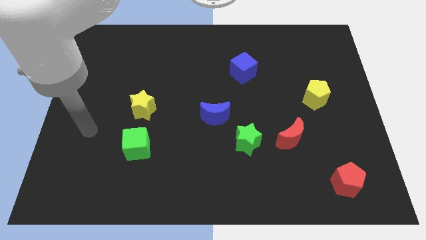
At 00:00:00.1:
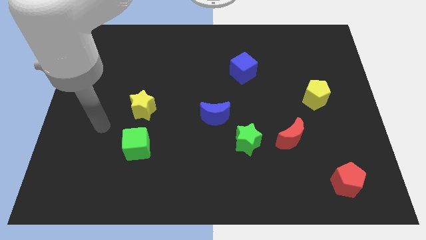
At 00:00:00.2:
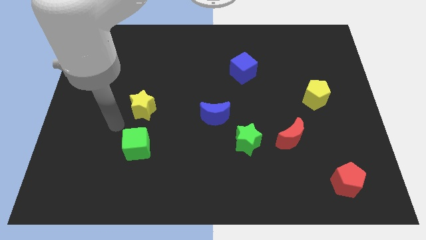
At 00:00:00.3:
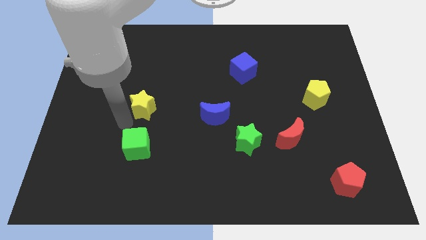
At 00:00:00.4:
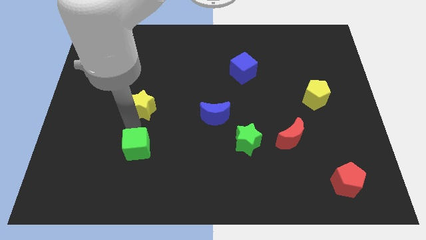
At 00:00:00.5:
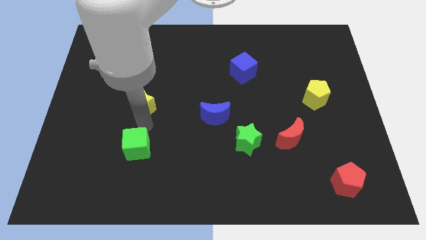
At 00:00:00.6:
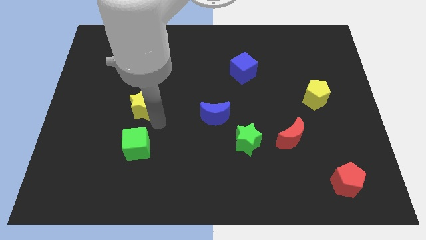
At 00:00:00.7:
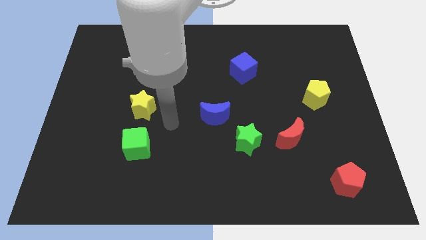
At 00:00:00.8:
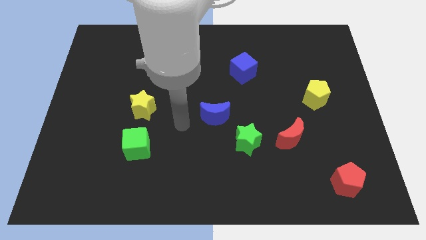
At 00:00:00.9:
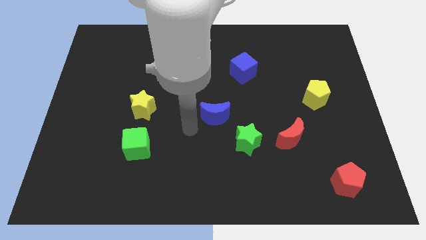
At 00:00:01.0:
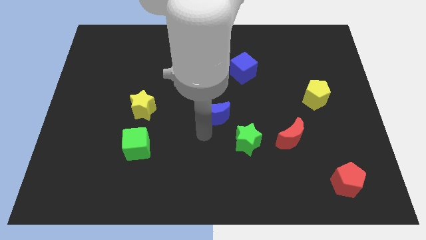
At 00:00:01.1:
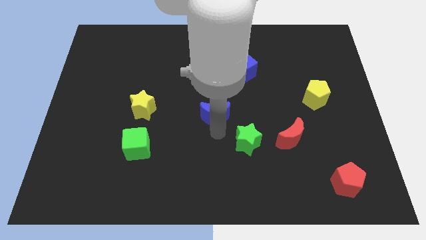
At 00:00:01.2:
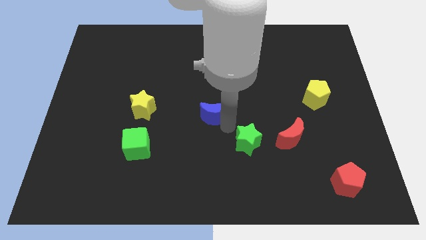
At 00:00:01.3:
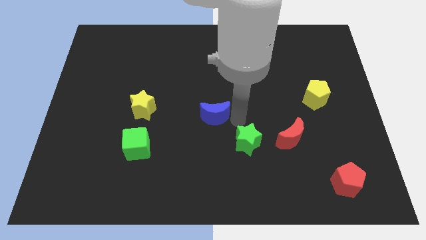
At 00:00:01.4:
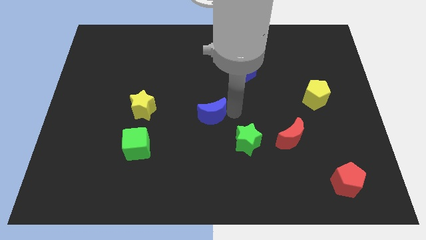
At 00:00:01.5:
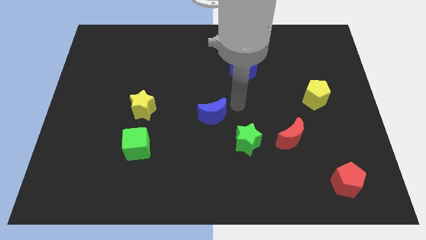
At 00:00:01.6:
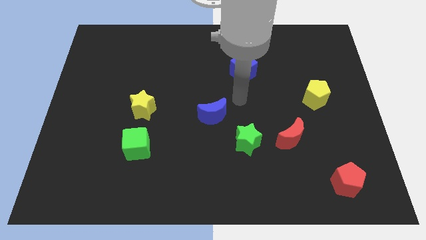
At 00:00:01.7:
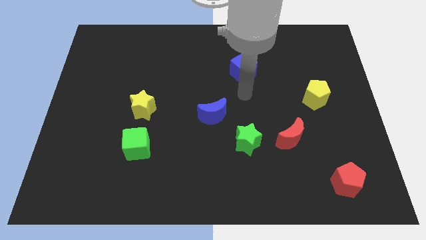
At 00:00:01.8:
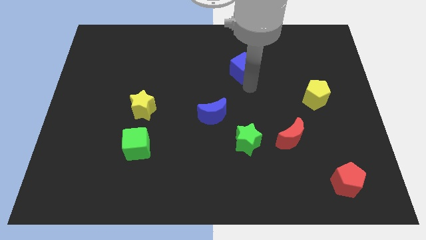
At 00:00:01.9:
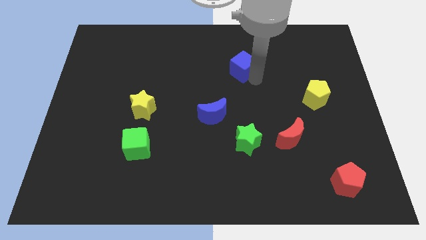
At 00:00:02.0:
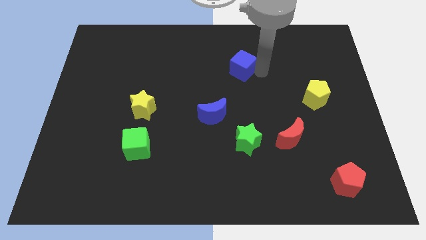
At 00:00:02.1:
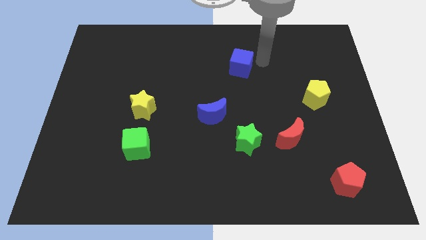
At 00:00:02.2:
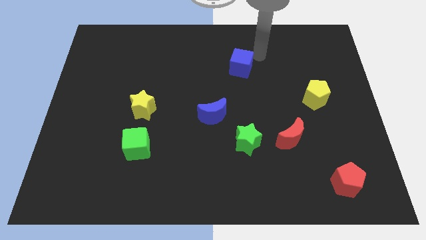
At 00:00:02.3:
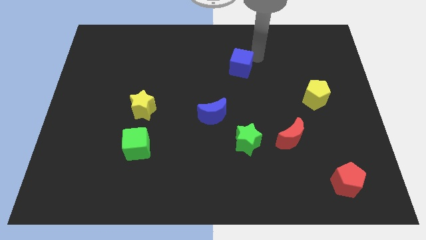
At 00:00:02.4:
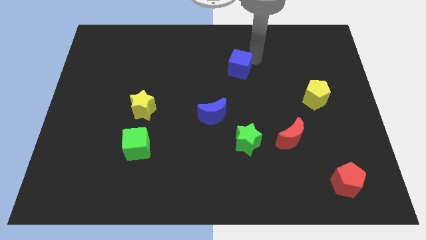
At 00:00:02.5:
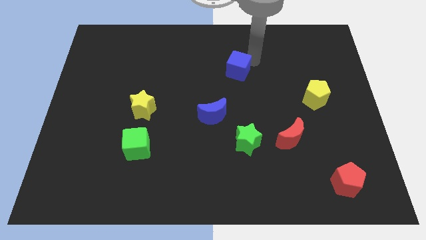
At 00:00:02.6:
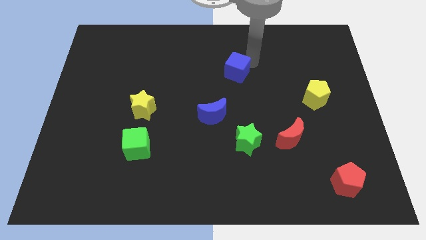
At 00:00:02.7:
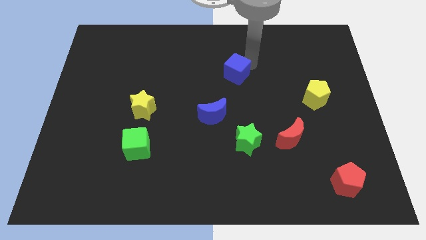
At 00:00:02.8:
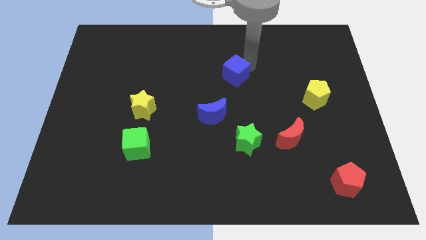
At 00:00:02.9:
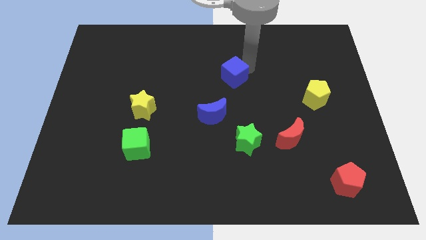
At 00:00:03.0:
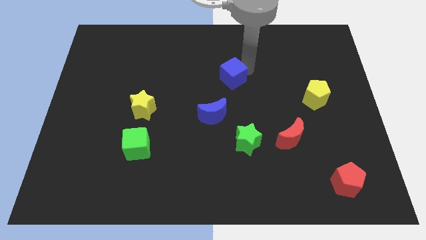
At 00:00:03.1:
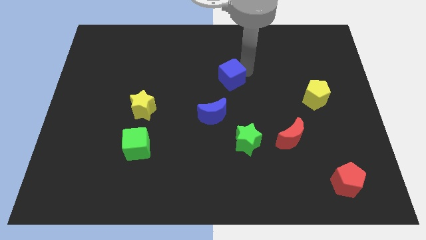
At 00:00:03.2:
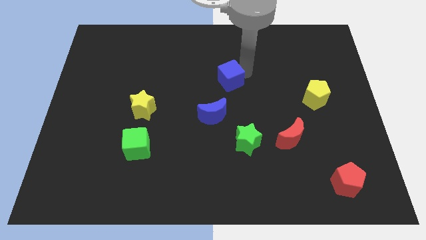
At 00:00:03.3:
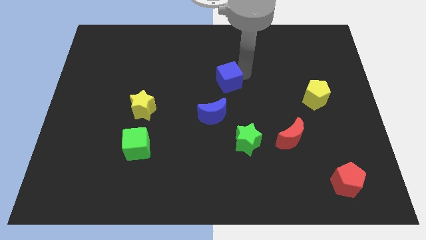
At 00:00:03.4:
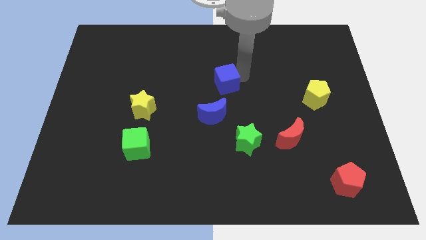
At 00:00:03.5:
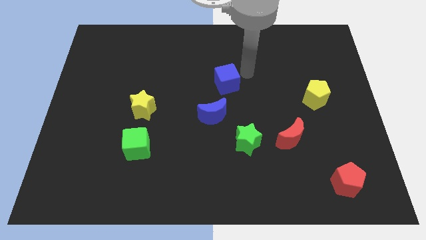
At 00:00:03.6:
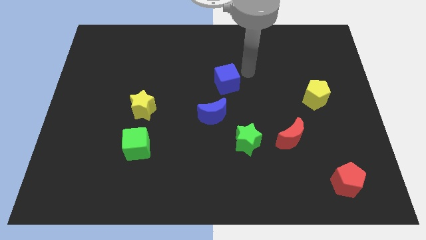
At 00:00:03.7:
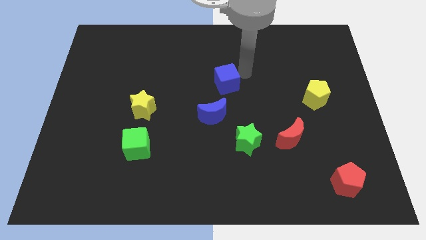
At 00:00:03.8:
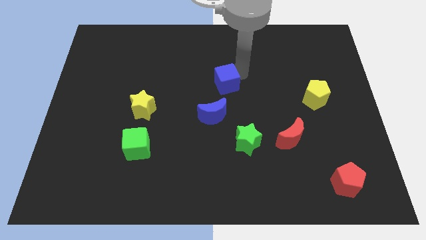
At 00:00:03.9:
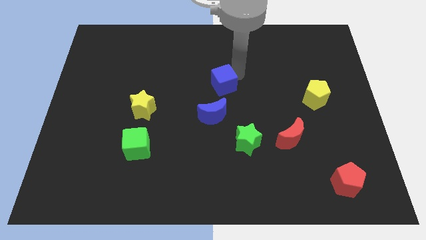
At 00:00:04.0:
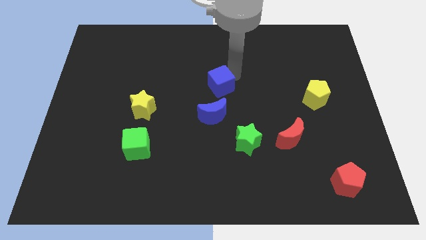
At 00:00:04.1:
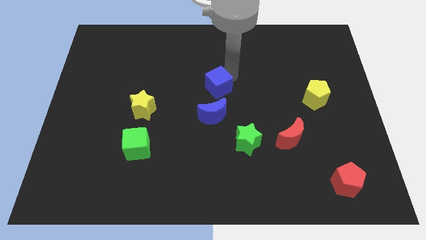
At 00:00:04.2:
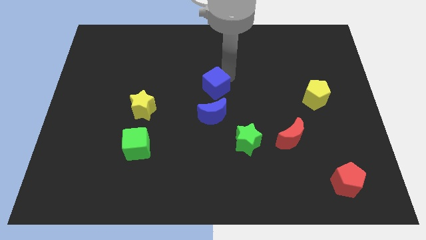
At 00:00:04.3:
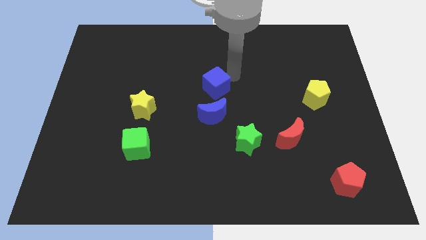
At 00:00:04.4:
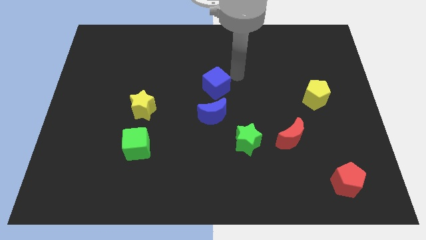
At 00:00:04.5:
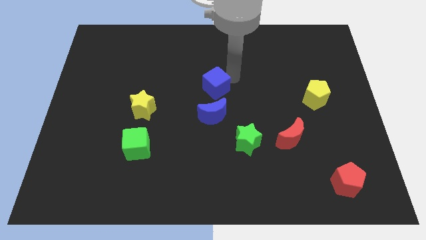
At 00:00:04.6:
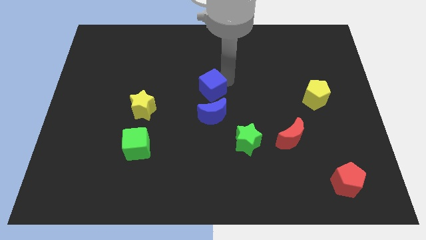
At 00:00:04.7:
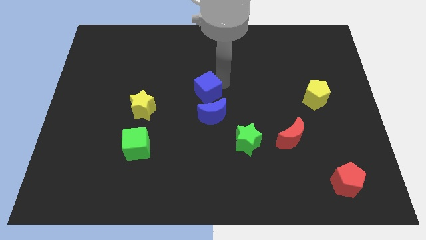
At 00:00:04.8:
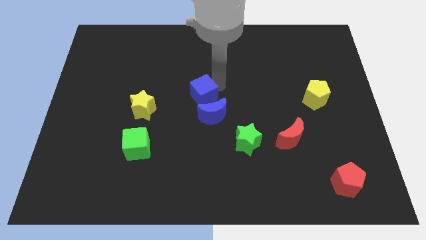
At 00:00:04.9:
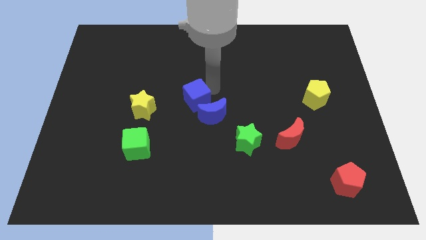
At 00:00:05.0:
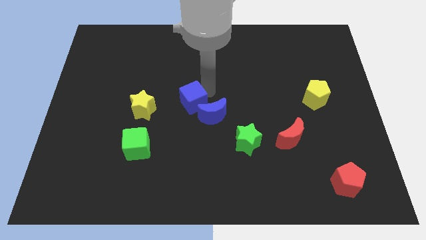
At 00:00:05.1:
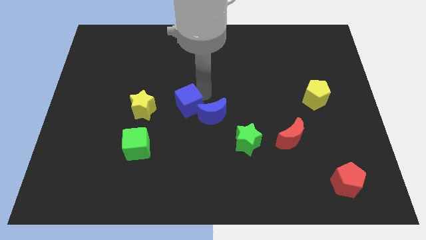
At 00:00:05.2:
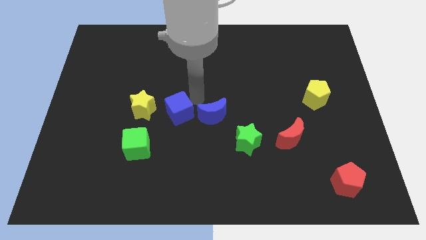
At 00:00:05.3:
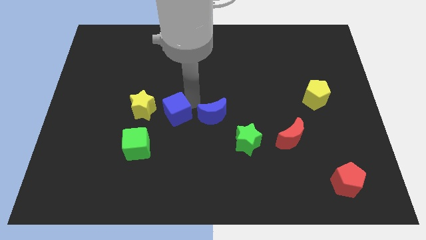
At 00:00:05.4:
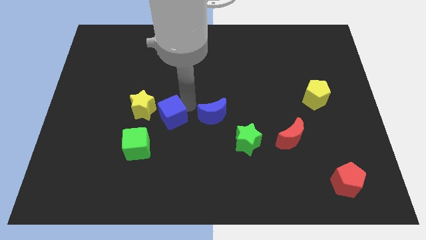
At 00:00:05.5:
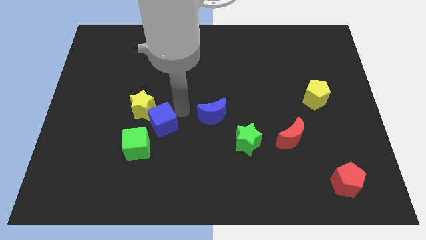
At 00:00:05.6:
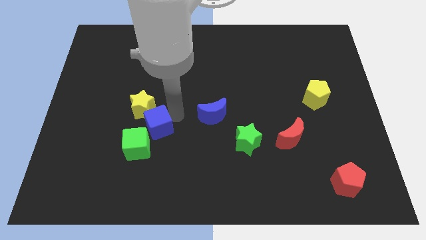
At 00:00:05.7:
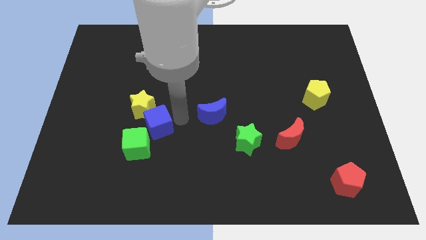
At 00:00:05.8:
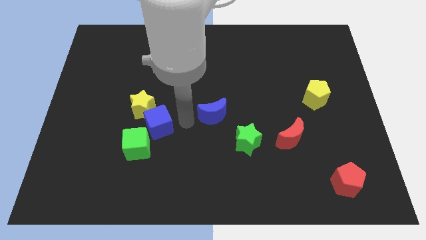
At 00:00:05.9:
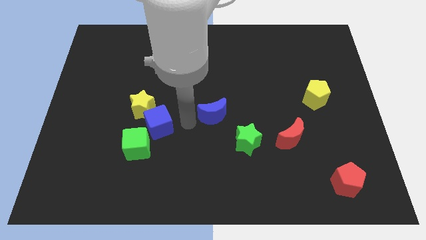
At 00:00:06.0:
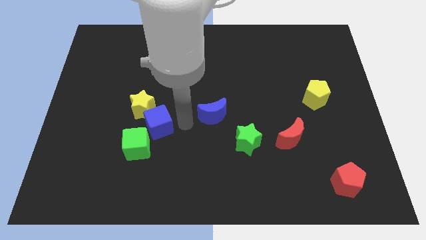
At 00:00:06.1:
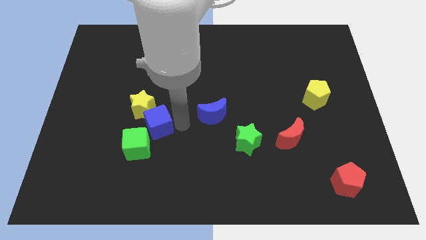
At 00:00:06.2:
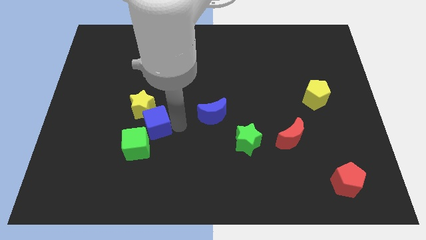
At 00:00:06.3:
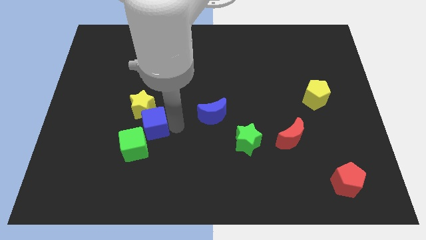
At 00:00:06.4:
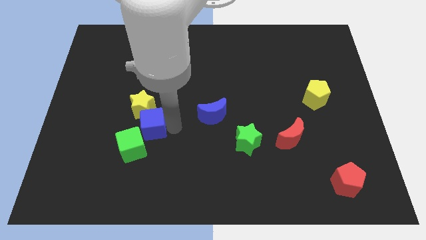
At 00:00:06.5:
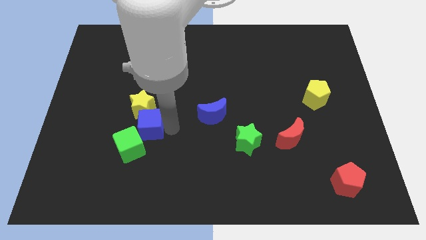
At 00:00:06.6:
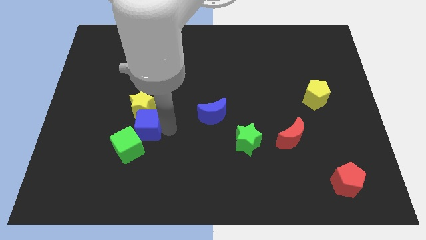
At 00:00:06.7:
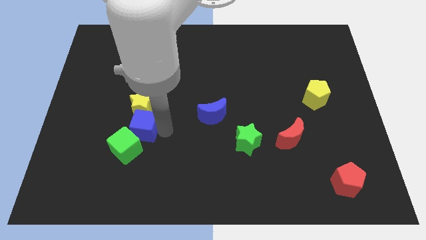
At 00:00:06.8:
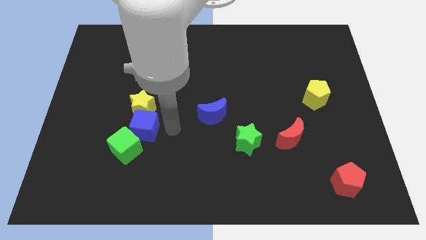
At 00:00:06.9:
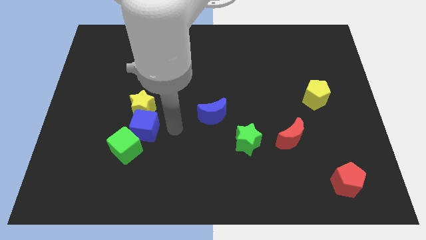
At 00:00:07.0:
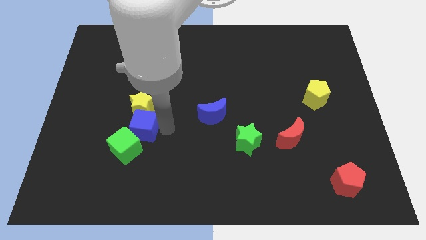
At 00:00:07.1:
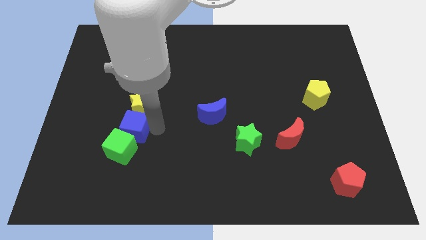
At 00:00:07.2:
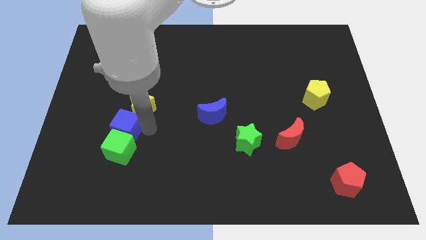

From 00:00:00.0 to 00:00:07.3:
slide the blue cube to the top left of the green cube
